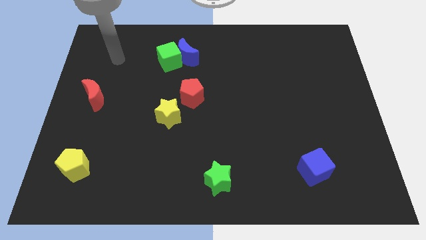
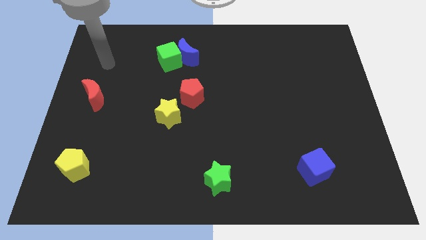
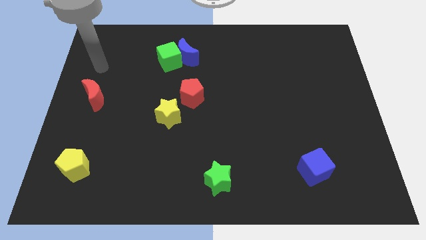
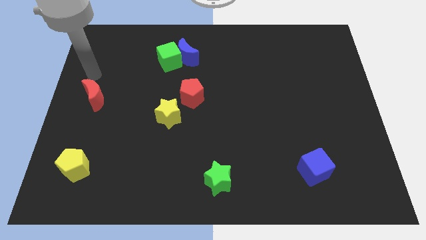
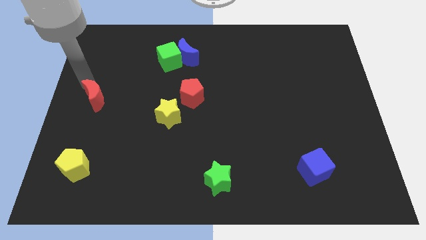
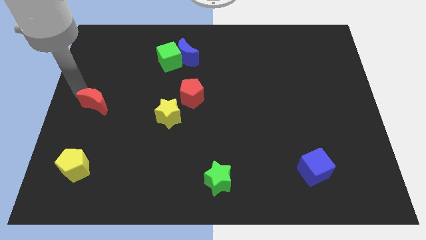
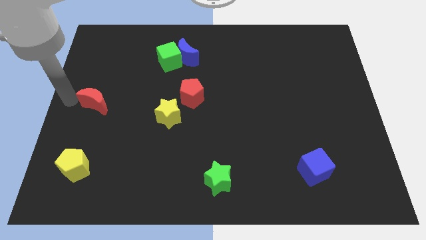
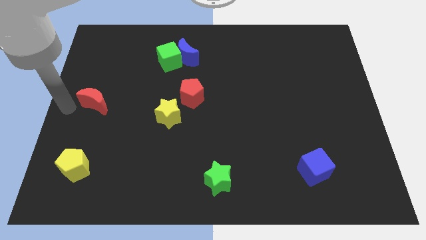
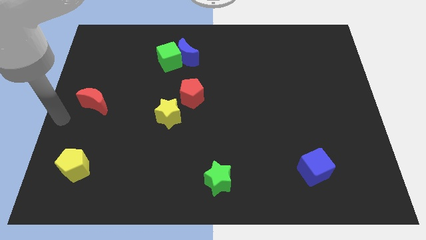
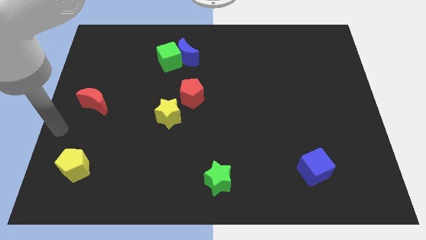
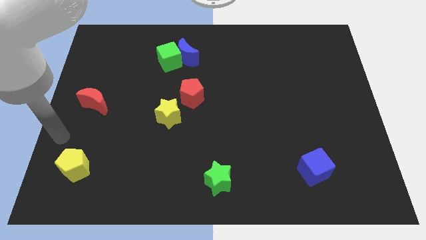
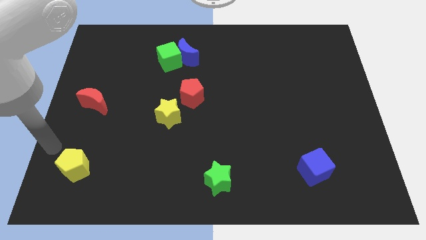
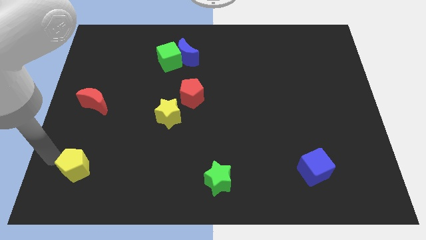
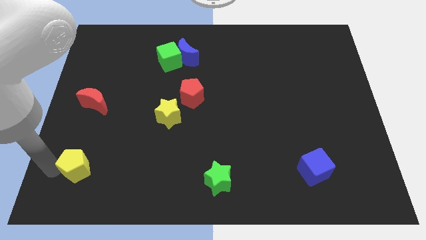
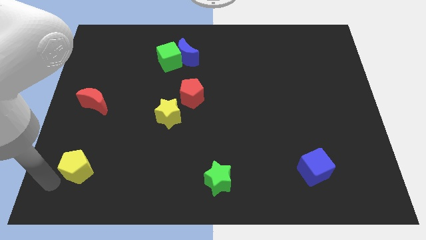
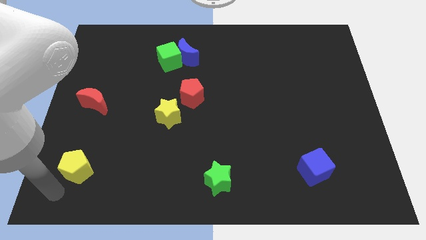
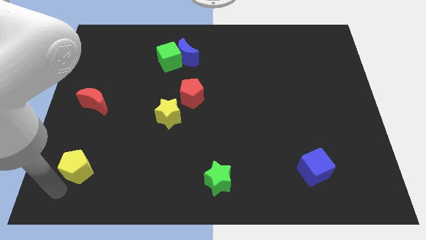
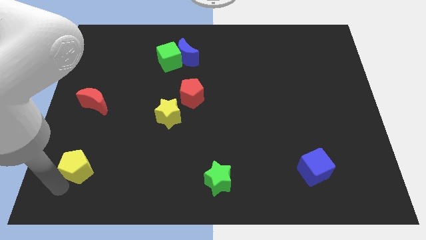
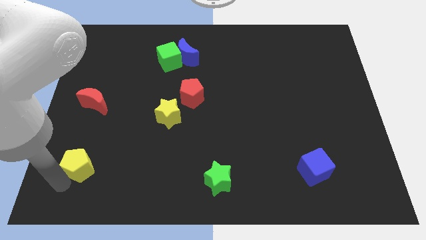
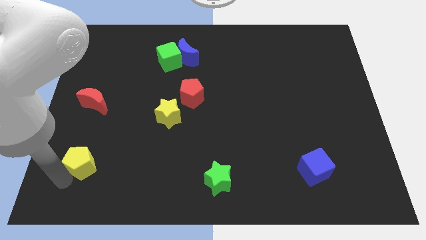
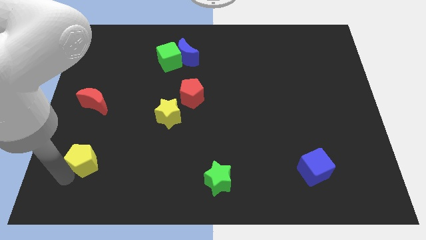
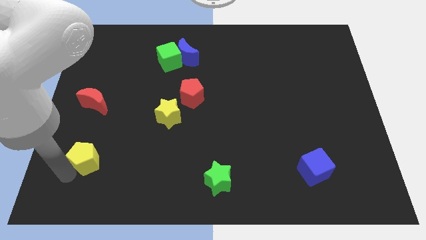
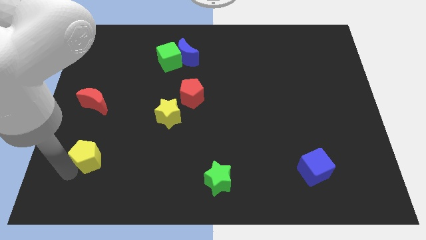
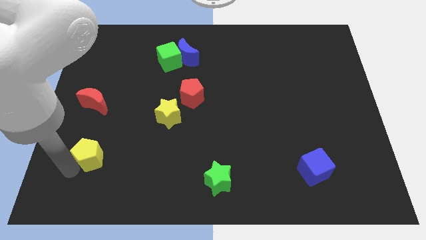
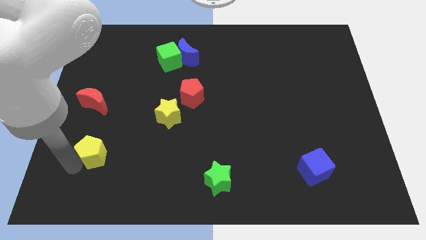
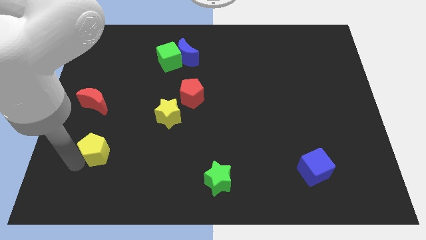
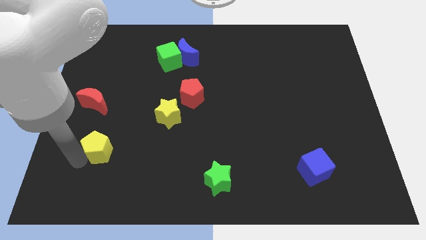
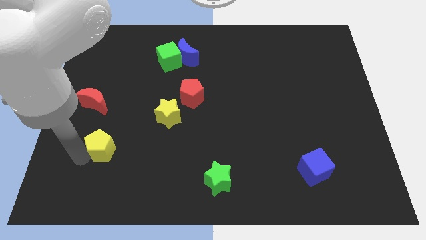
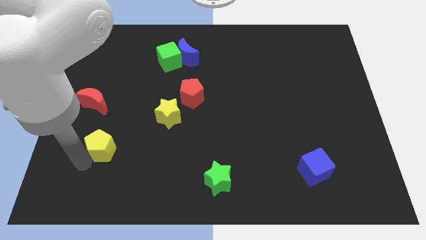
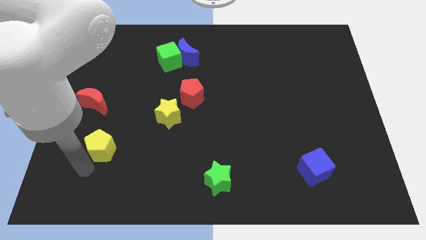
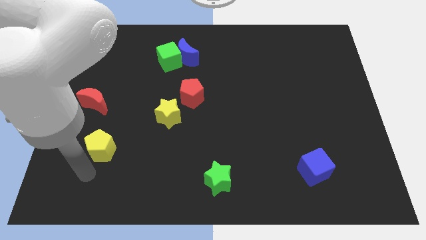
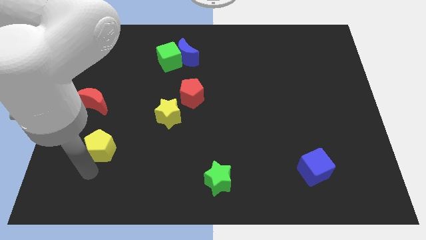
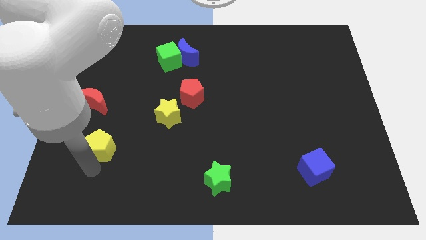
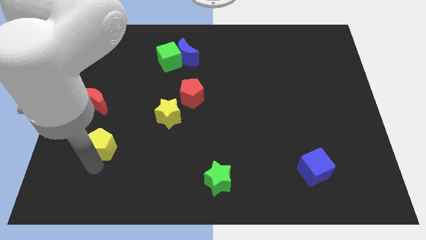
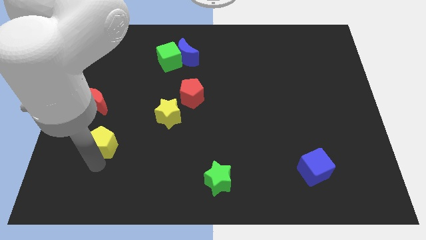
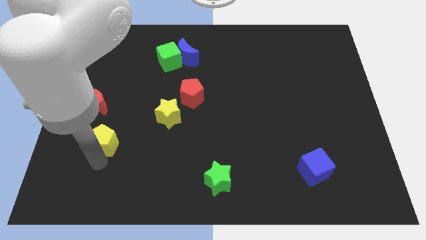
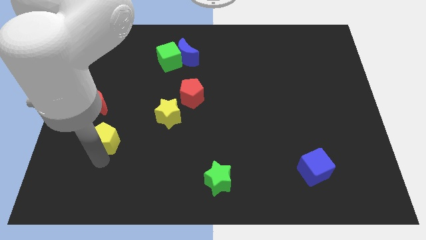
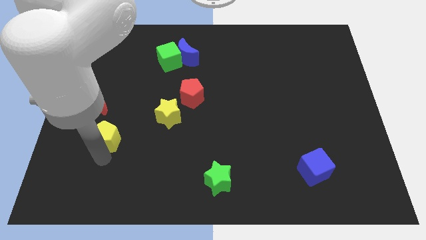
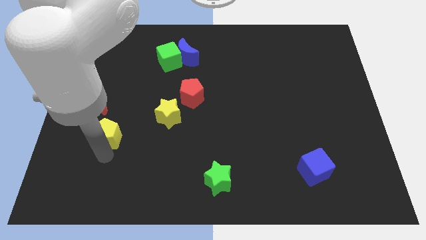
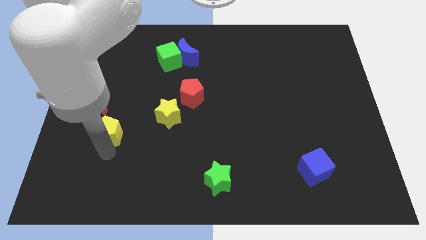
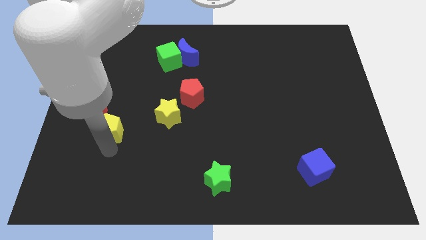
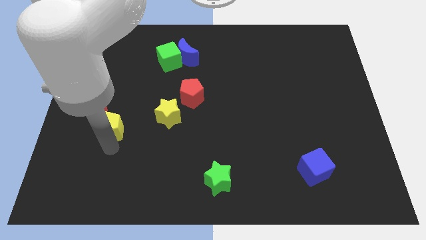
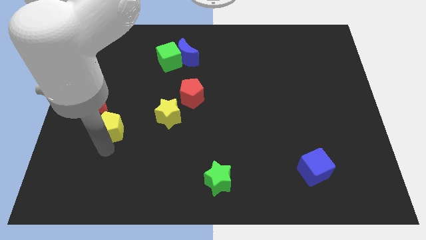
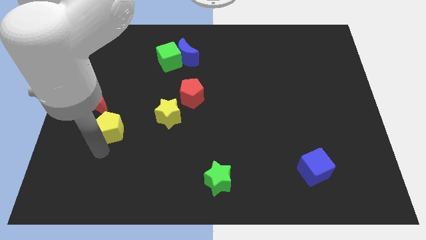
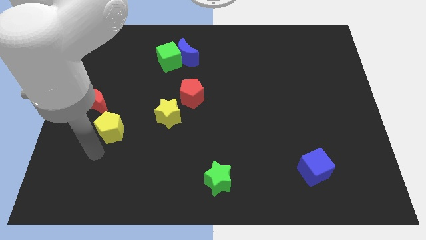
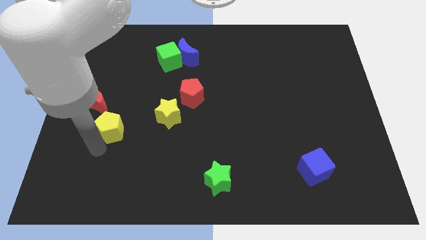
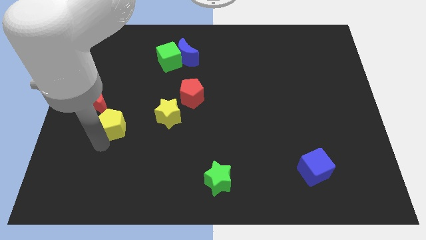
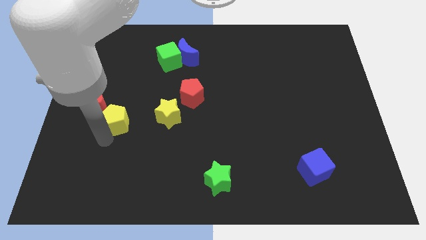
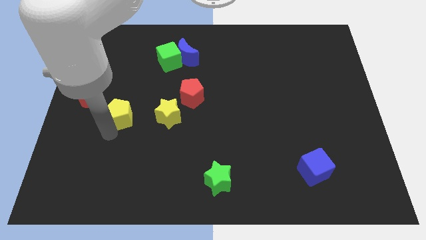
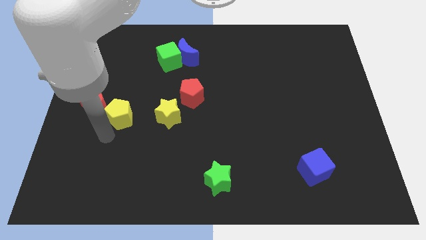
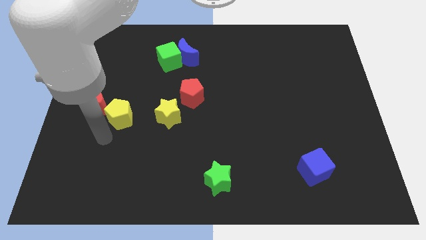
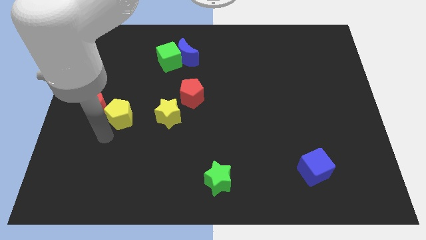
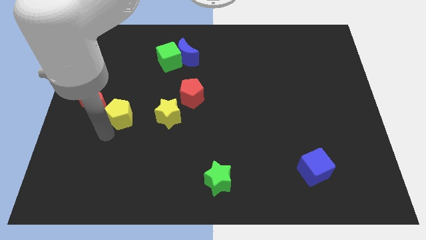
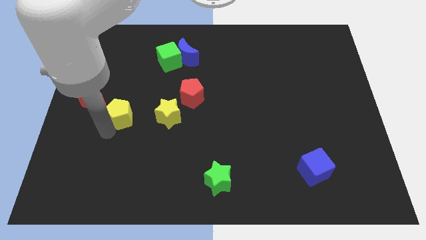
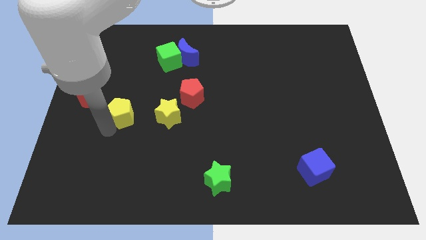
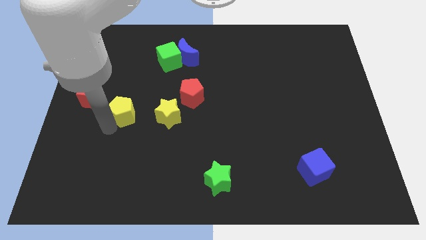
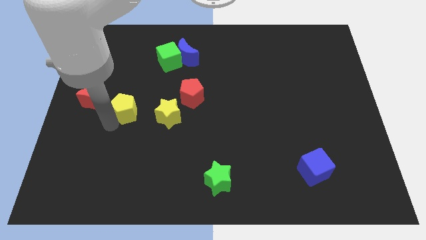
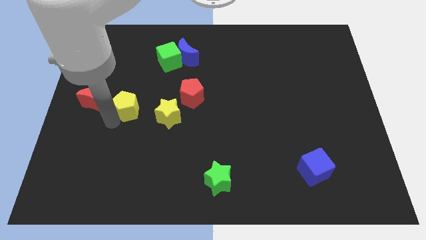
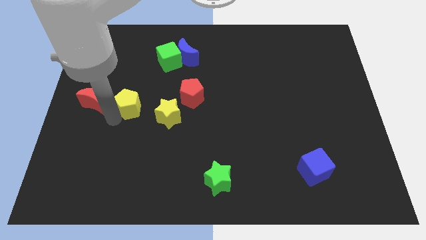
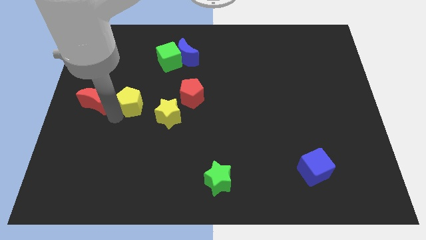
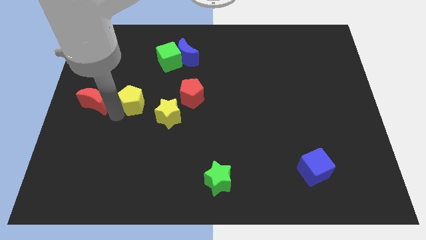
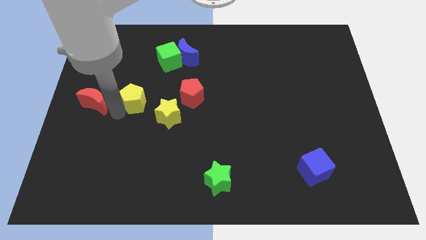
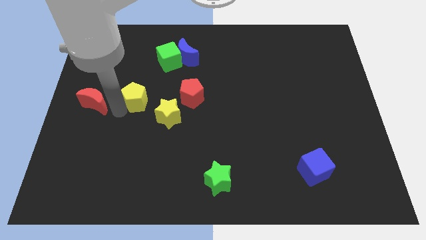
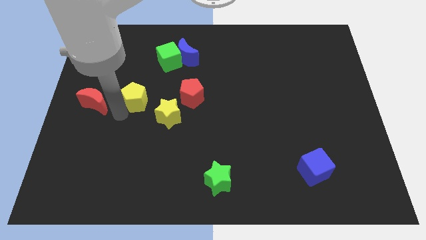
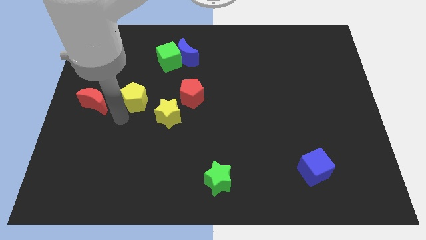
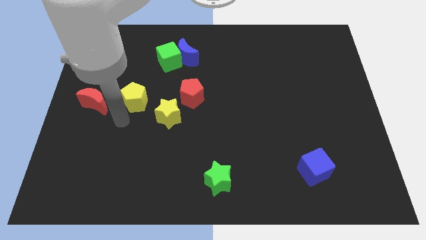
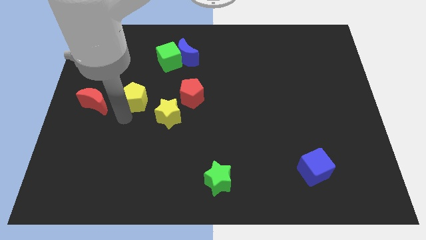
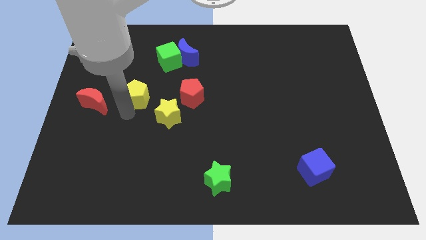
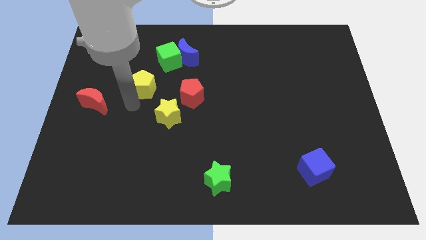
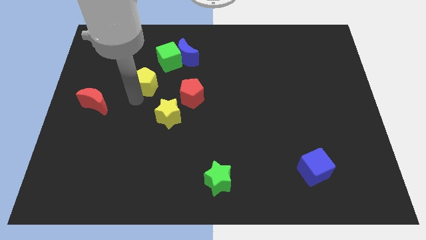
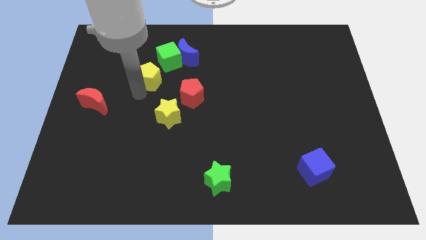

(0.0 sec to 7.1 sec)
push the yellow pentagon to the bottom left of the blue moon

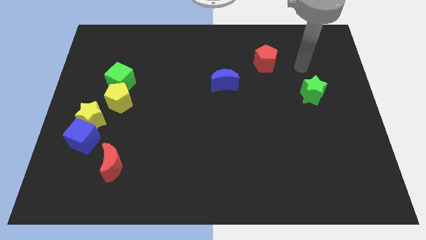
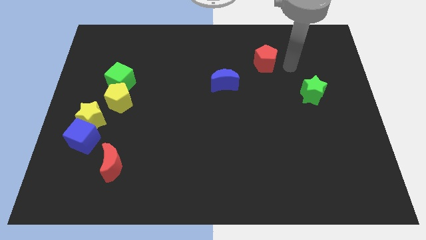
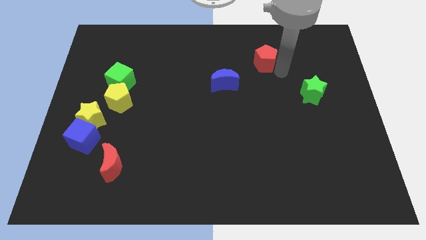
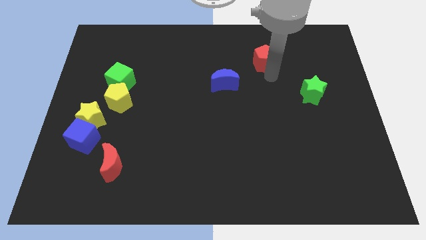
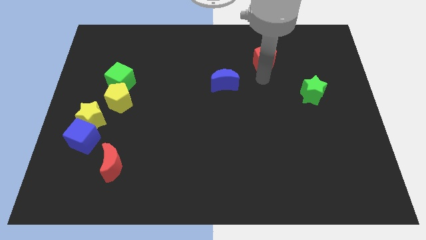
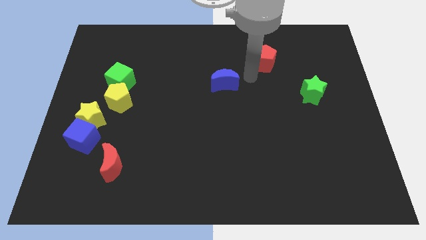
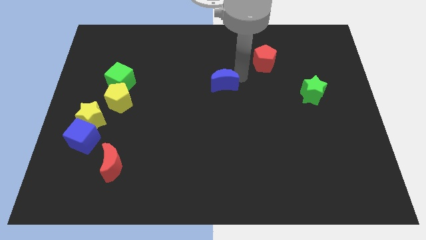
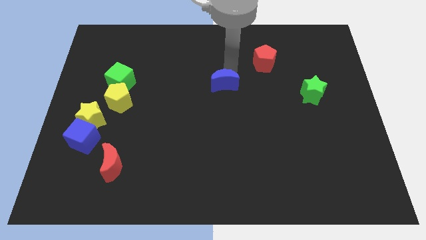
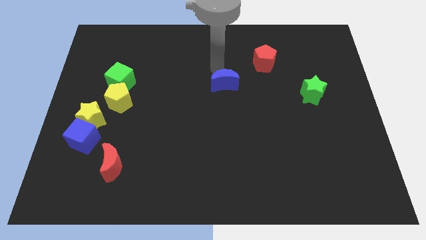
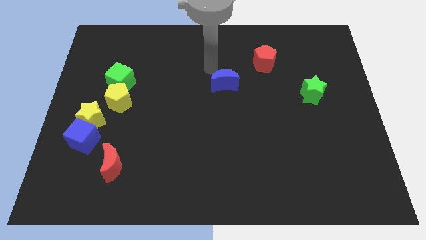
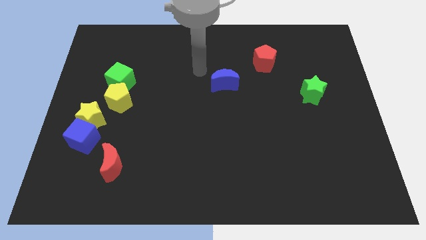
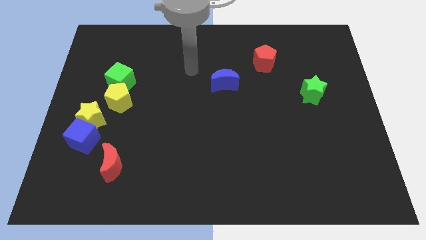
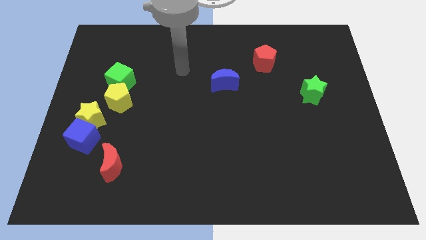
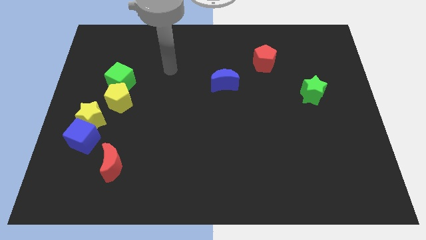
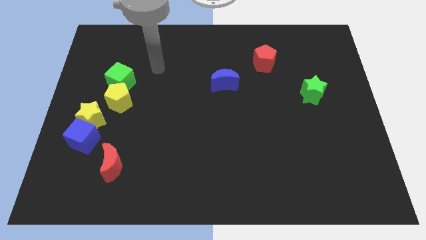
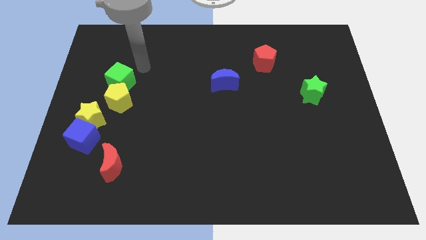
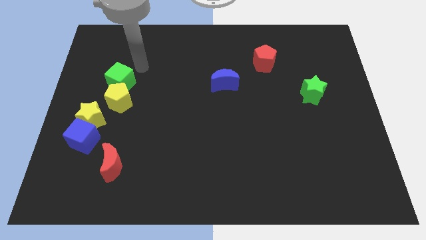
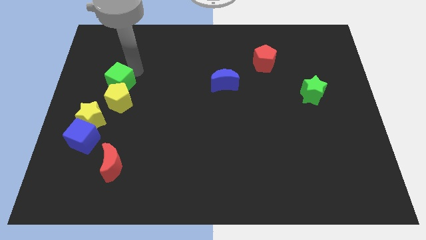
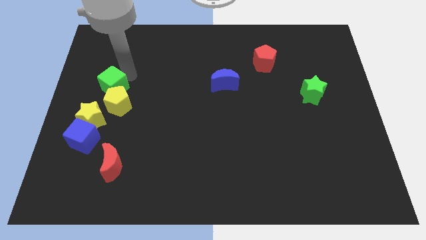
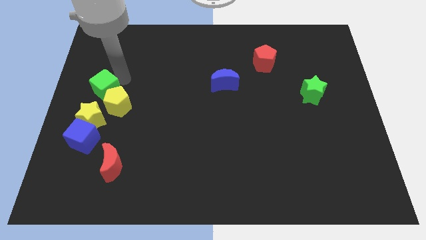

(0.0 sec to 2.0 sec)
put the green cube to the top side of the blue cube
